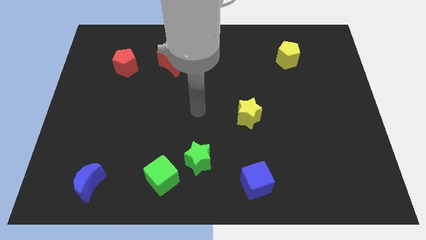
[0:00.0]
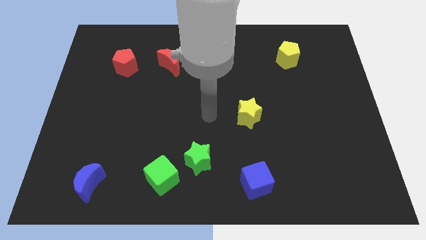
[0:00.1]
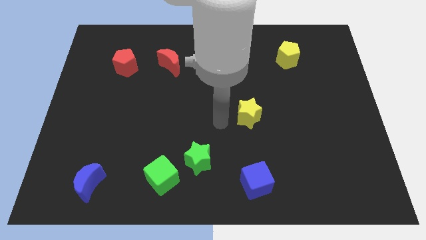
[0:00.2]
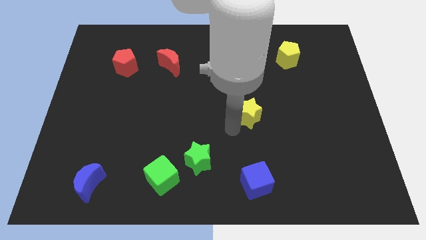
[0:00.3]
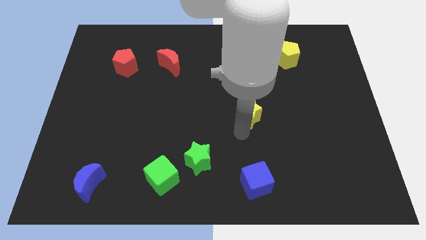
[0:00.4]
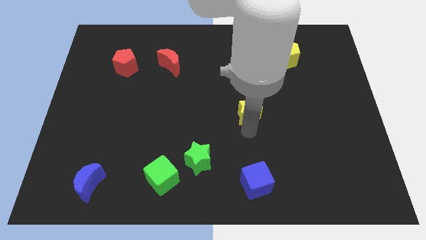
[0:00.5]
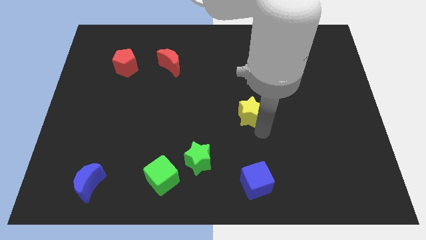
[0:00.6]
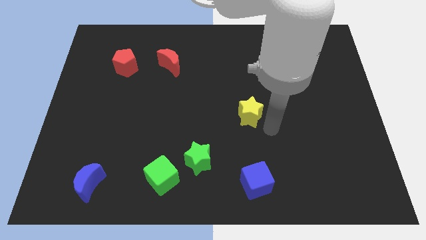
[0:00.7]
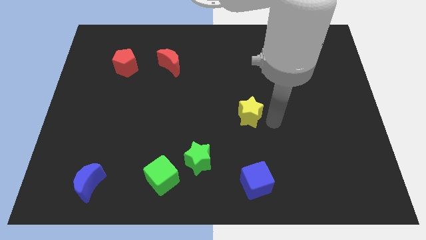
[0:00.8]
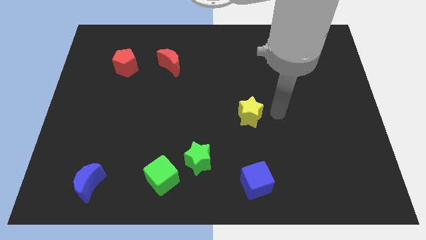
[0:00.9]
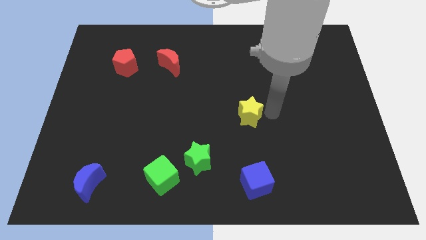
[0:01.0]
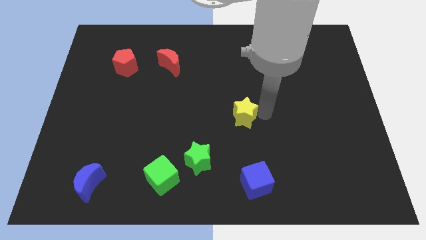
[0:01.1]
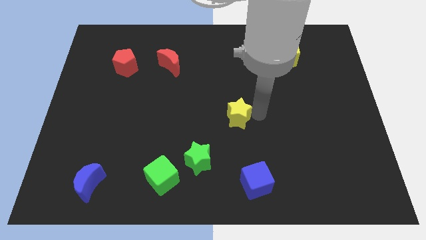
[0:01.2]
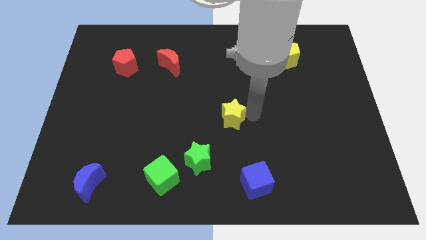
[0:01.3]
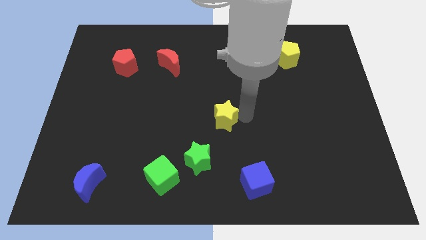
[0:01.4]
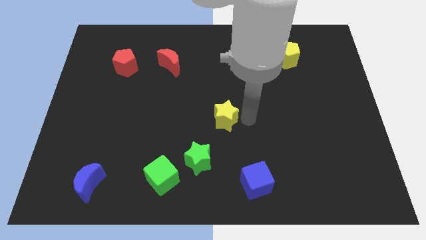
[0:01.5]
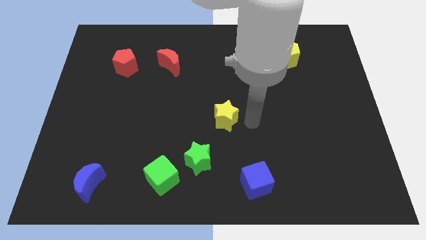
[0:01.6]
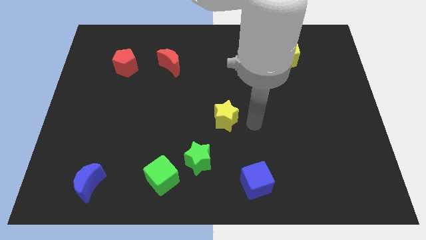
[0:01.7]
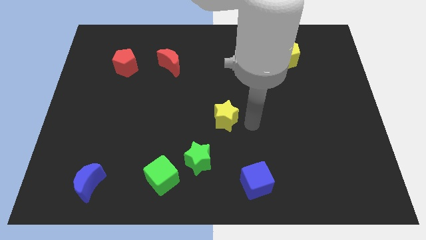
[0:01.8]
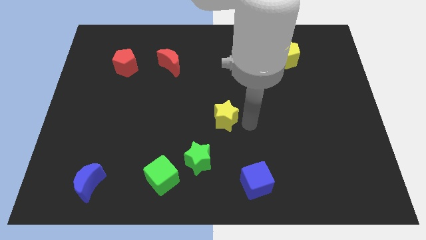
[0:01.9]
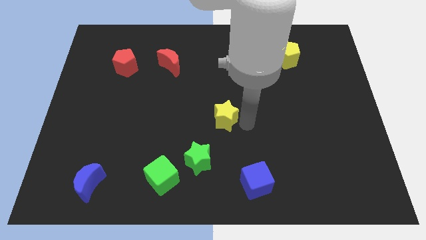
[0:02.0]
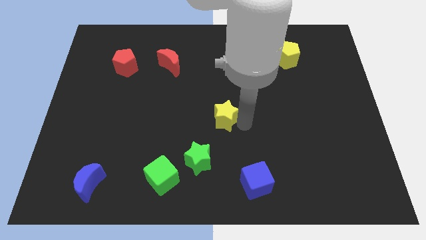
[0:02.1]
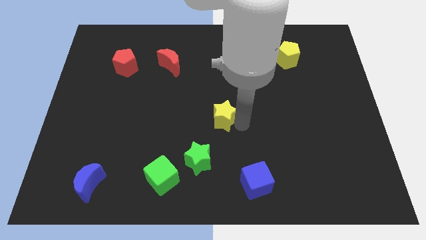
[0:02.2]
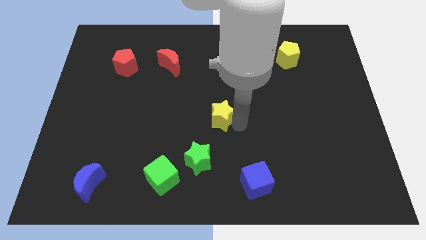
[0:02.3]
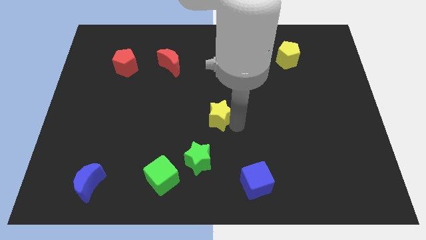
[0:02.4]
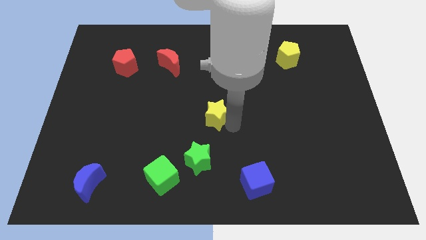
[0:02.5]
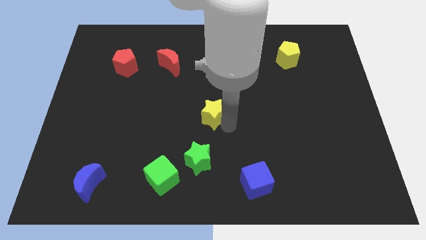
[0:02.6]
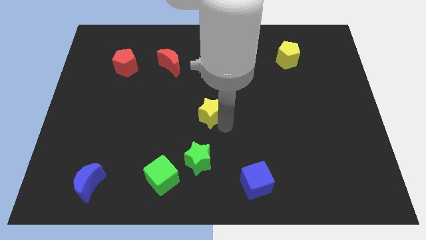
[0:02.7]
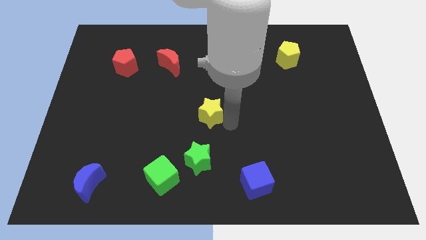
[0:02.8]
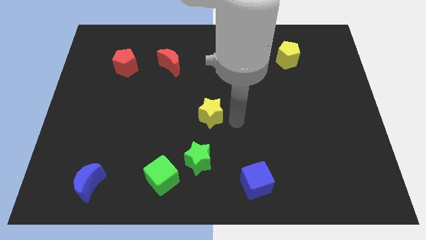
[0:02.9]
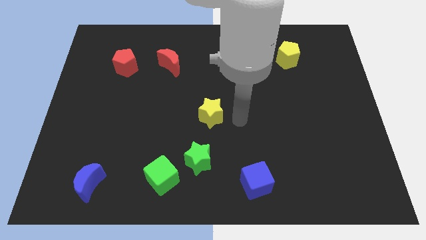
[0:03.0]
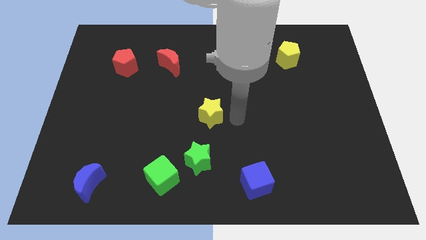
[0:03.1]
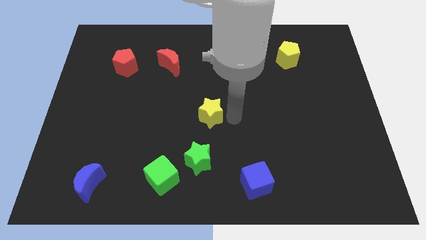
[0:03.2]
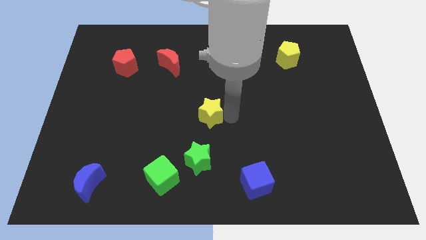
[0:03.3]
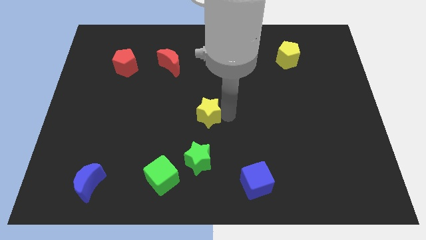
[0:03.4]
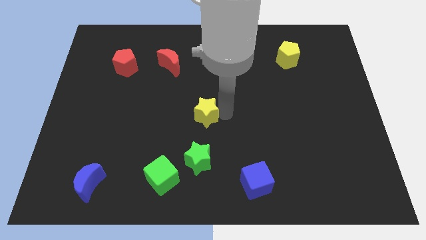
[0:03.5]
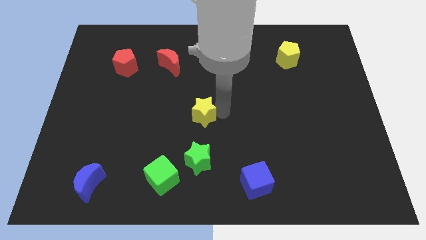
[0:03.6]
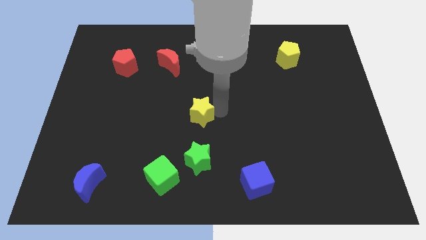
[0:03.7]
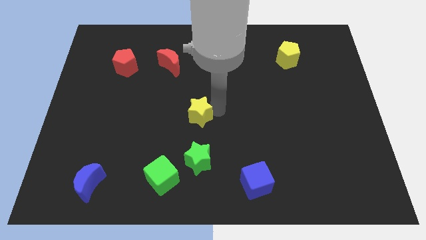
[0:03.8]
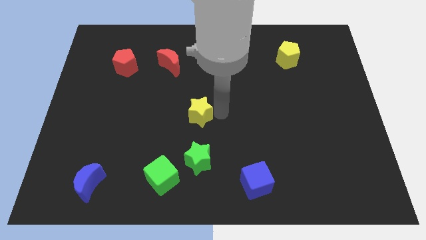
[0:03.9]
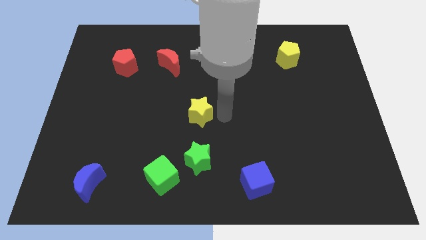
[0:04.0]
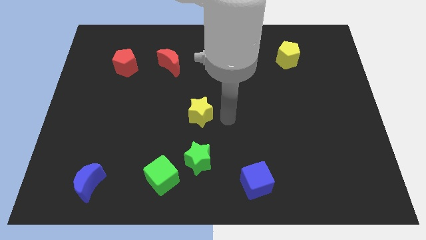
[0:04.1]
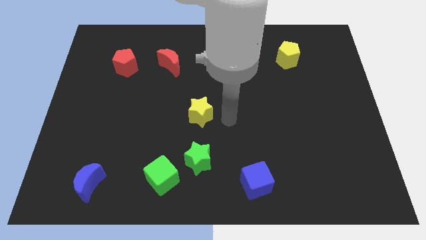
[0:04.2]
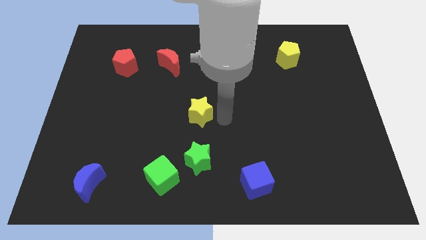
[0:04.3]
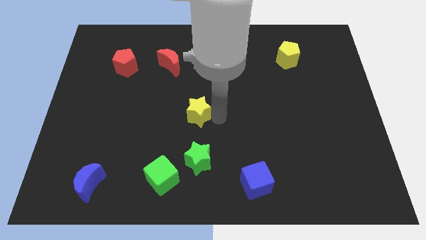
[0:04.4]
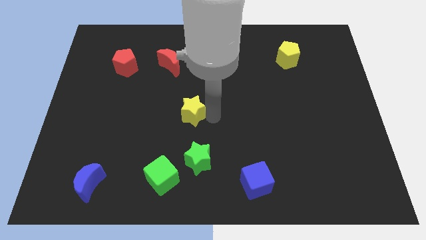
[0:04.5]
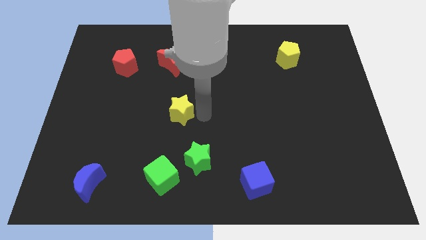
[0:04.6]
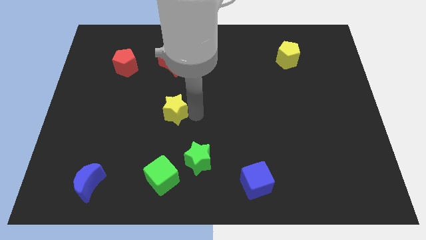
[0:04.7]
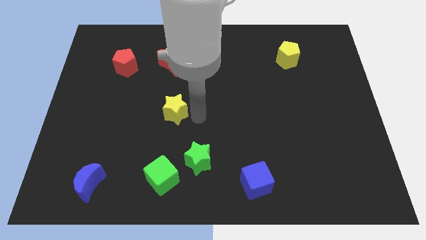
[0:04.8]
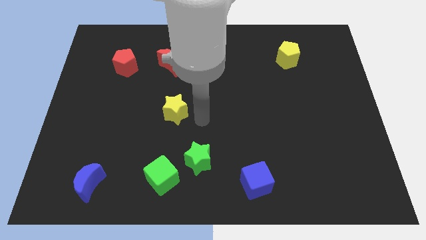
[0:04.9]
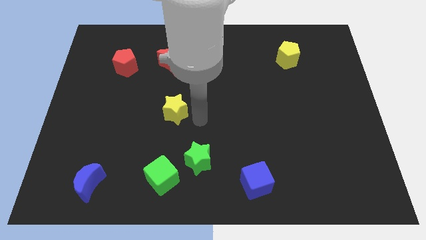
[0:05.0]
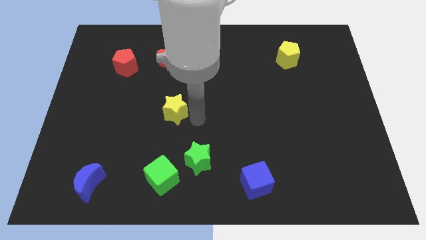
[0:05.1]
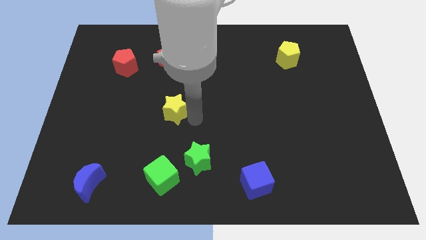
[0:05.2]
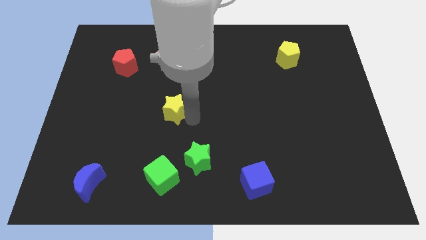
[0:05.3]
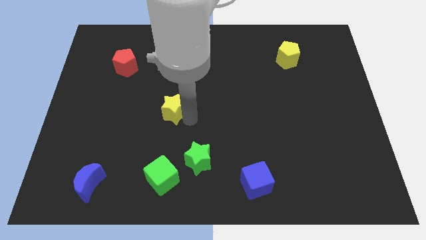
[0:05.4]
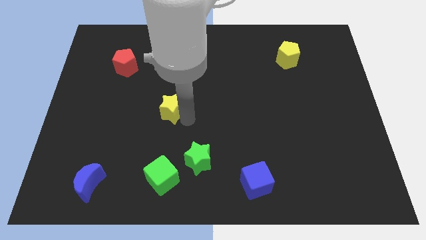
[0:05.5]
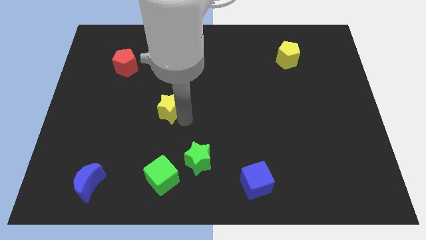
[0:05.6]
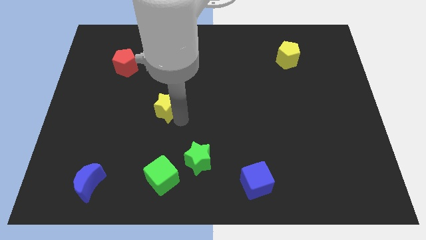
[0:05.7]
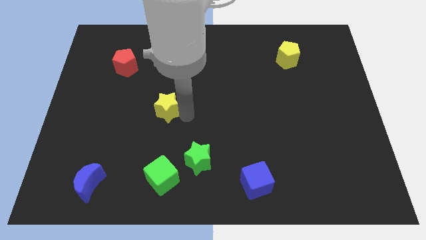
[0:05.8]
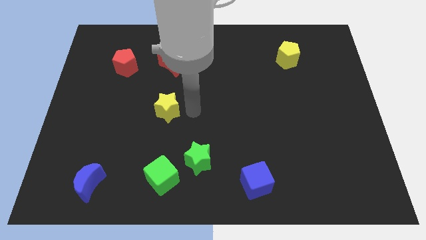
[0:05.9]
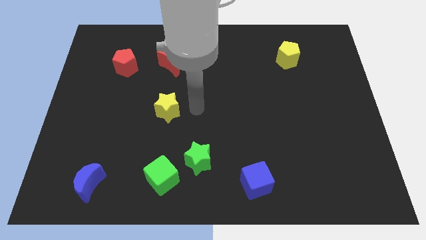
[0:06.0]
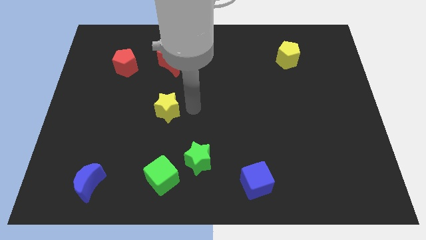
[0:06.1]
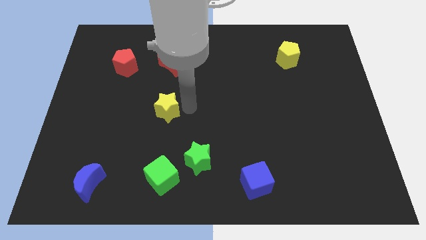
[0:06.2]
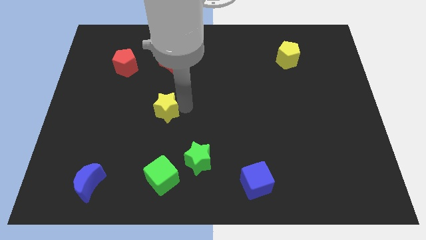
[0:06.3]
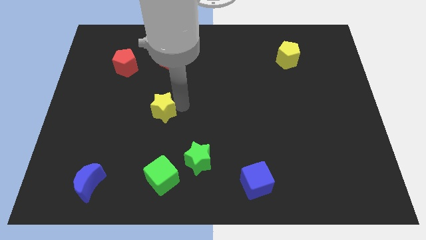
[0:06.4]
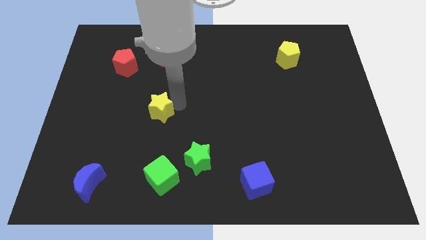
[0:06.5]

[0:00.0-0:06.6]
move the yellow star left

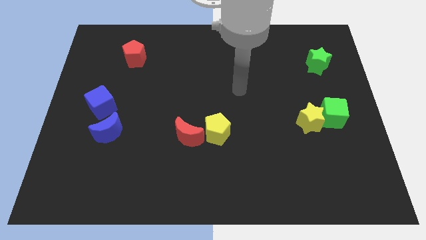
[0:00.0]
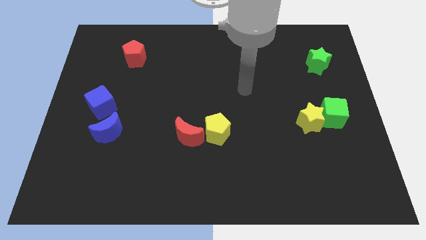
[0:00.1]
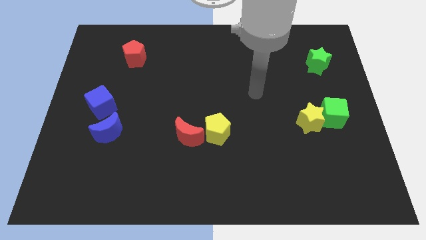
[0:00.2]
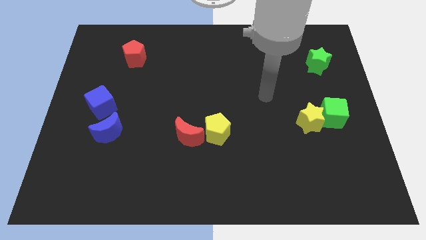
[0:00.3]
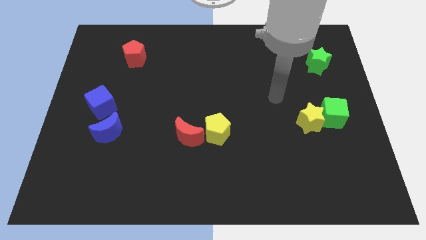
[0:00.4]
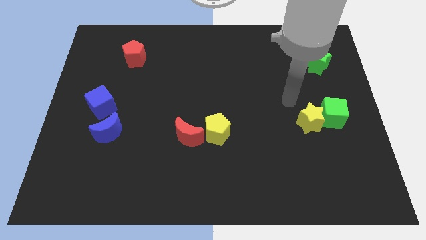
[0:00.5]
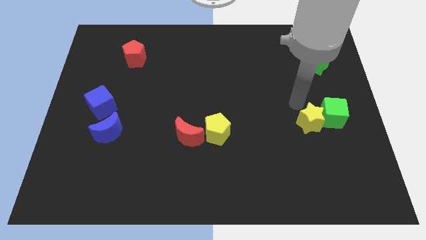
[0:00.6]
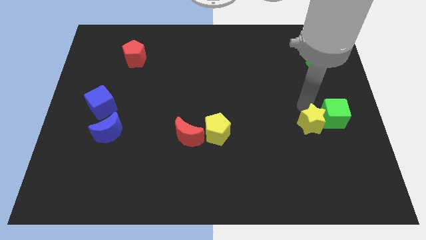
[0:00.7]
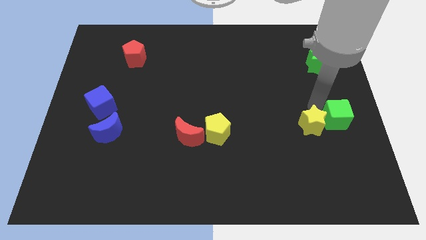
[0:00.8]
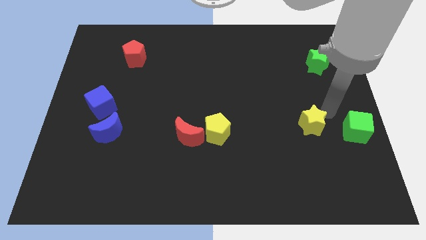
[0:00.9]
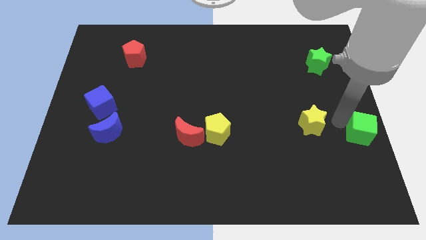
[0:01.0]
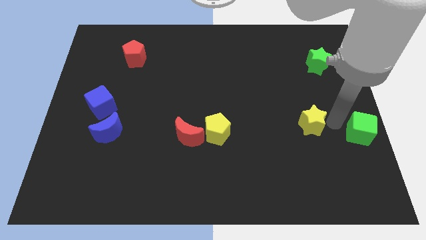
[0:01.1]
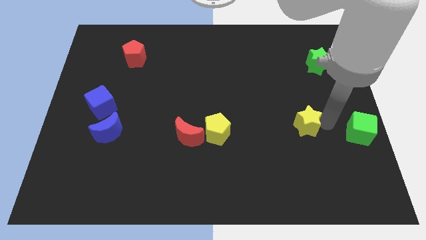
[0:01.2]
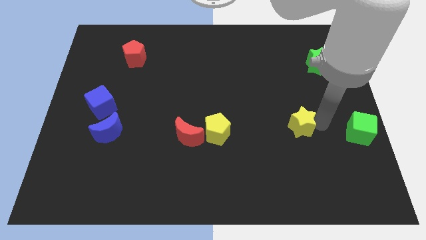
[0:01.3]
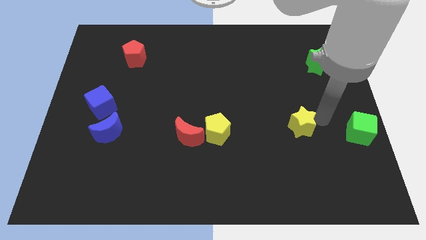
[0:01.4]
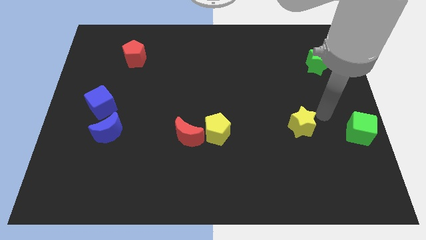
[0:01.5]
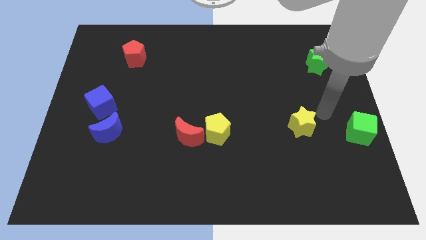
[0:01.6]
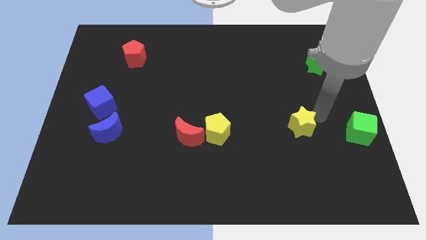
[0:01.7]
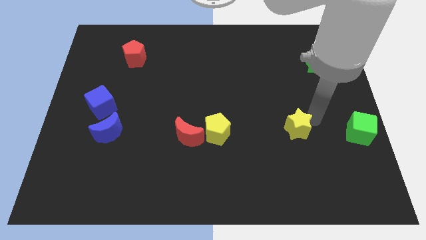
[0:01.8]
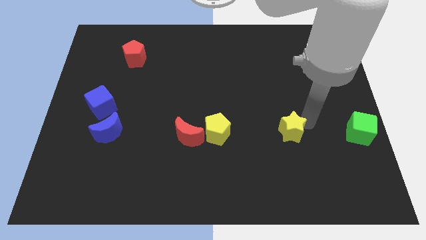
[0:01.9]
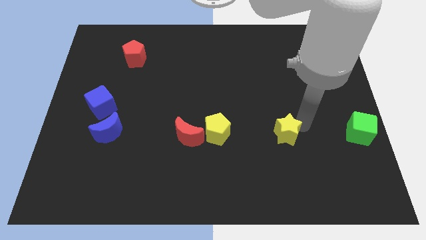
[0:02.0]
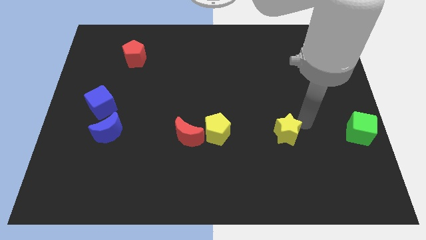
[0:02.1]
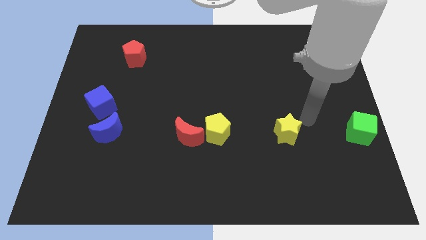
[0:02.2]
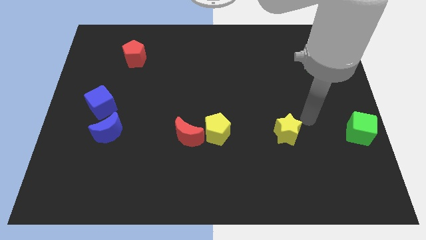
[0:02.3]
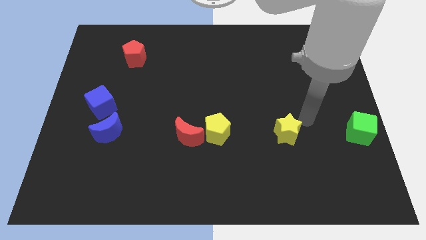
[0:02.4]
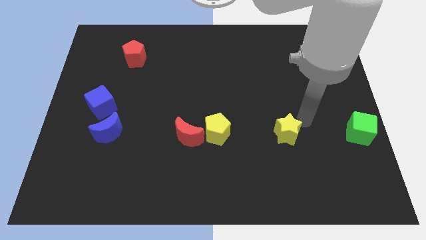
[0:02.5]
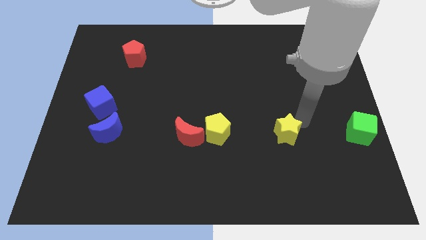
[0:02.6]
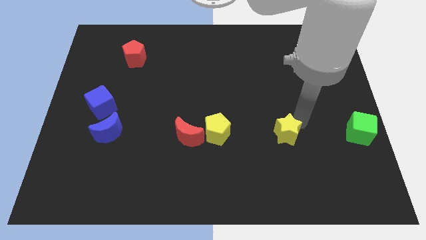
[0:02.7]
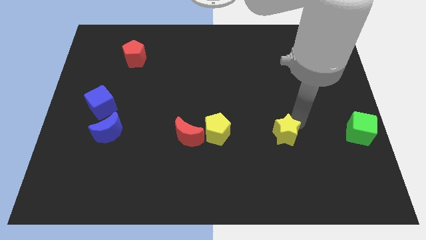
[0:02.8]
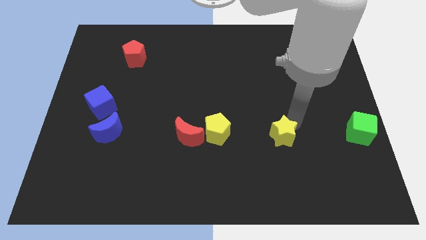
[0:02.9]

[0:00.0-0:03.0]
push the yellow star down and to the left slightly
